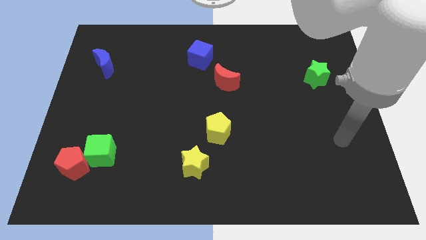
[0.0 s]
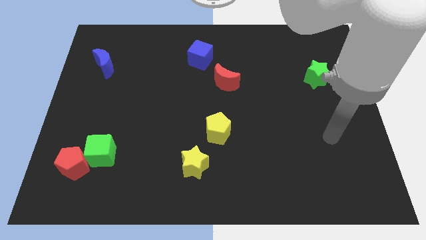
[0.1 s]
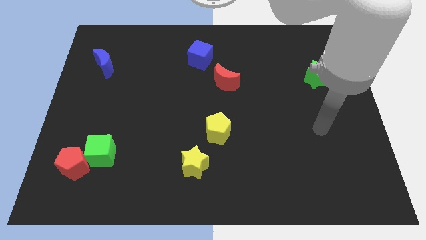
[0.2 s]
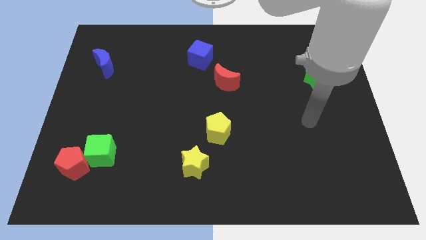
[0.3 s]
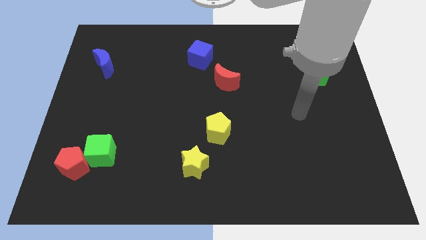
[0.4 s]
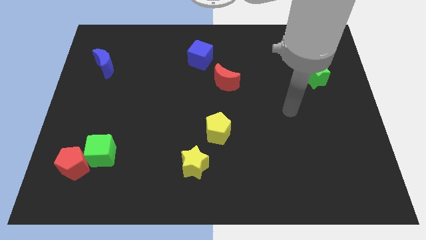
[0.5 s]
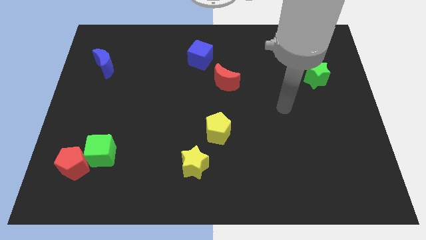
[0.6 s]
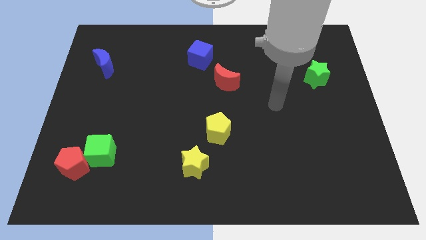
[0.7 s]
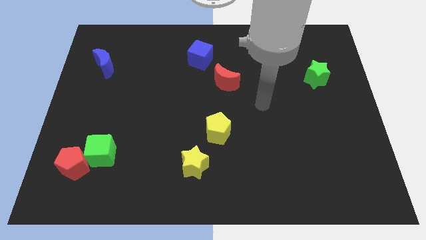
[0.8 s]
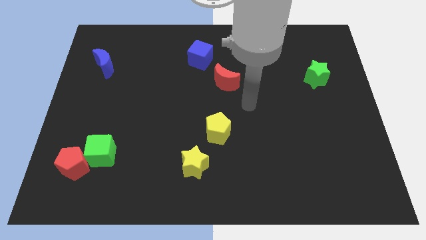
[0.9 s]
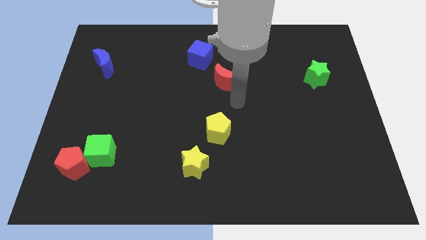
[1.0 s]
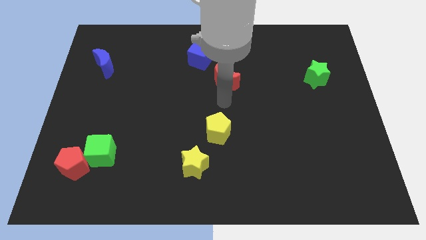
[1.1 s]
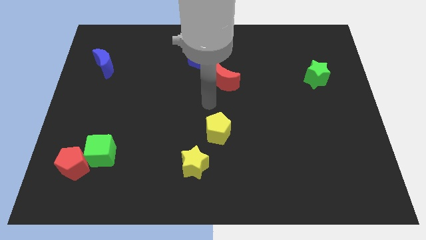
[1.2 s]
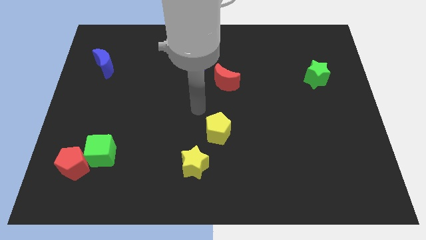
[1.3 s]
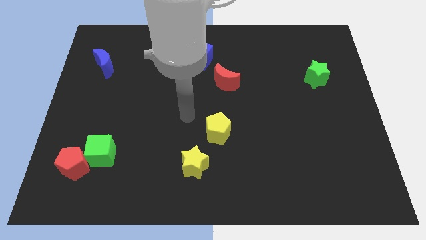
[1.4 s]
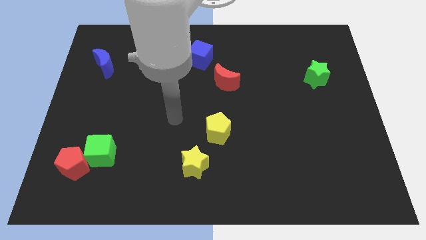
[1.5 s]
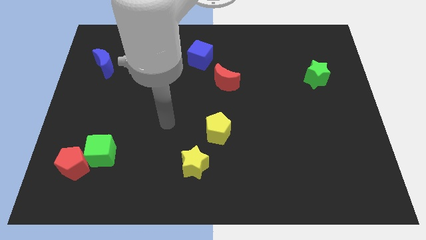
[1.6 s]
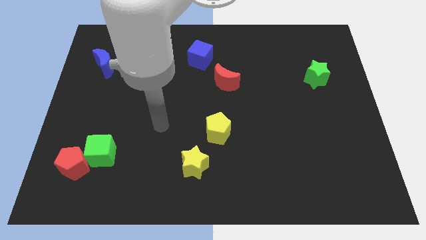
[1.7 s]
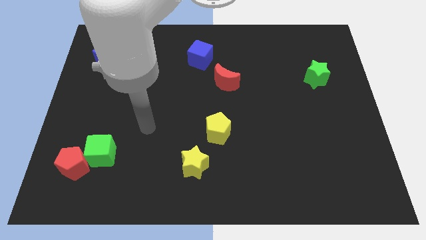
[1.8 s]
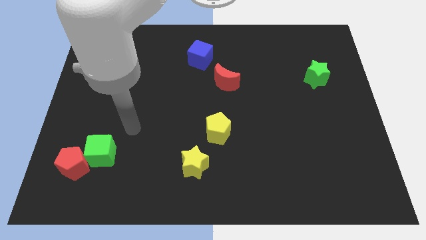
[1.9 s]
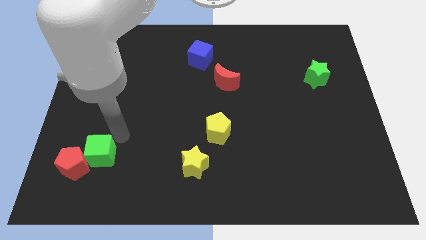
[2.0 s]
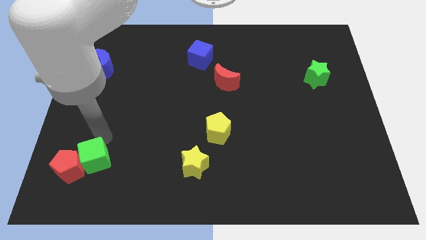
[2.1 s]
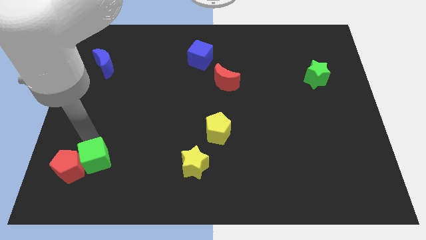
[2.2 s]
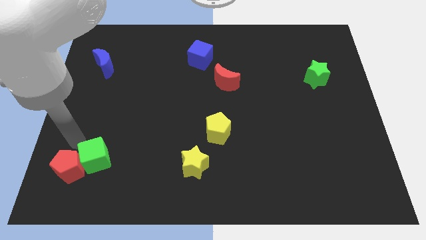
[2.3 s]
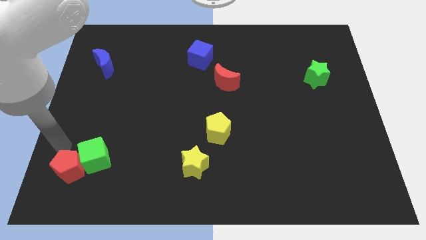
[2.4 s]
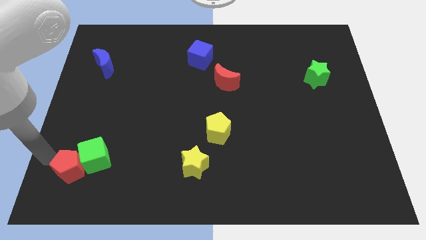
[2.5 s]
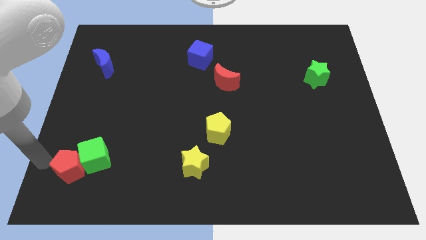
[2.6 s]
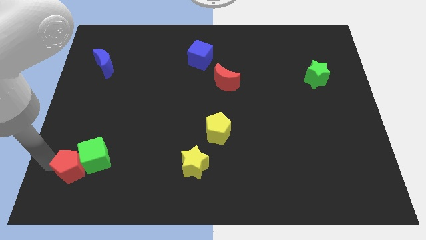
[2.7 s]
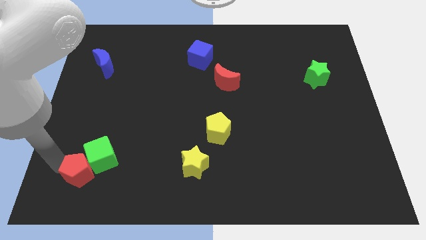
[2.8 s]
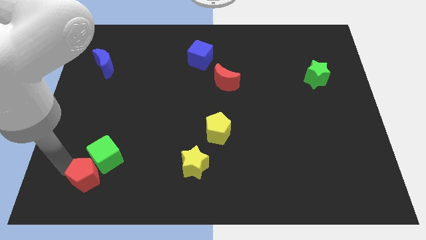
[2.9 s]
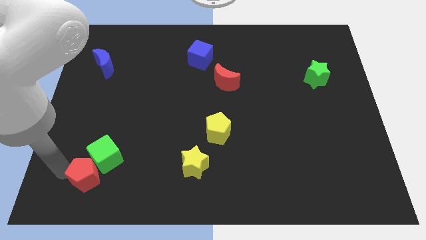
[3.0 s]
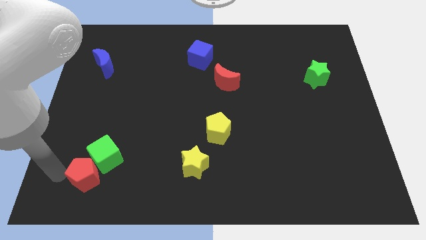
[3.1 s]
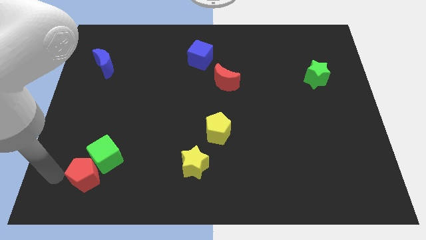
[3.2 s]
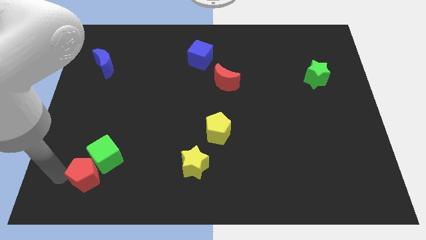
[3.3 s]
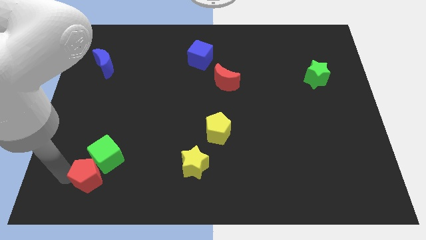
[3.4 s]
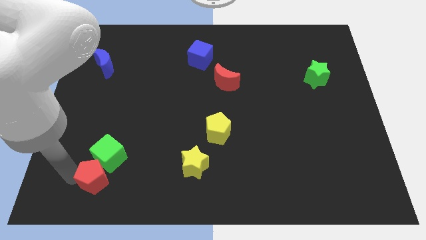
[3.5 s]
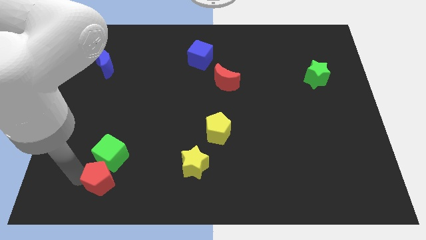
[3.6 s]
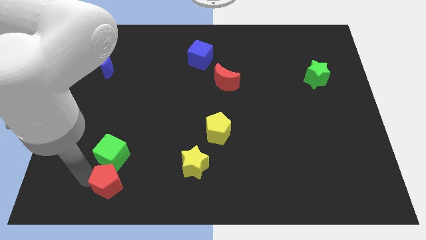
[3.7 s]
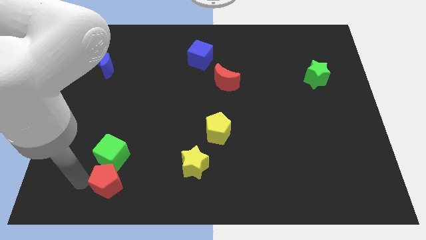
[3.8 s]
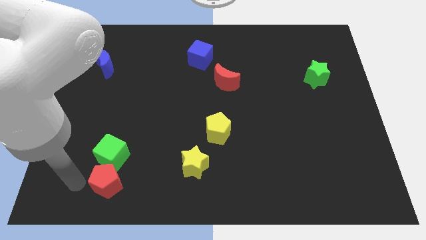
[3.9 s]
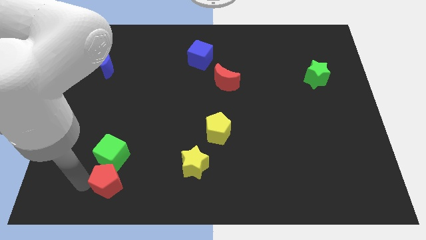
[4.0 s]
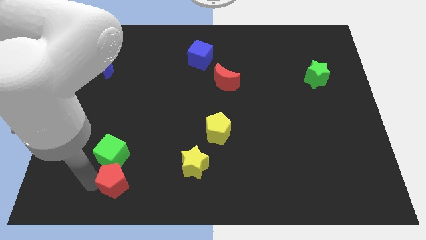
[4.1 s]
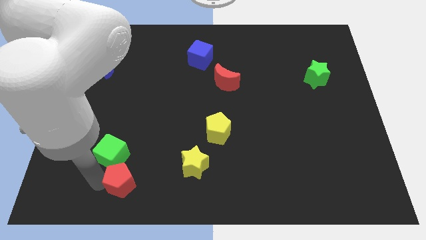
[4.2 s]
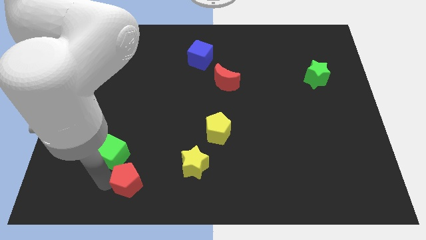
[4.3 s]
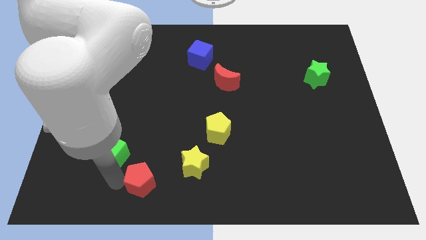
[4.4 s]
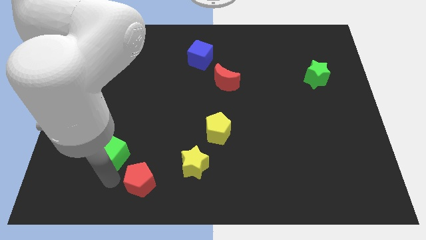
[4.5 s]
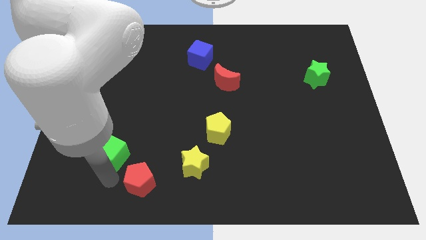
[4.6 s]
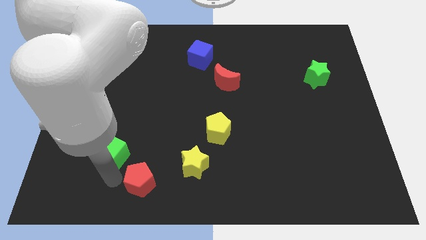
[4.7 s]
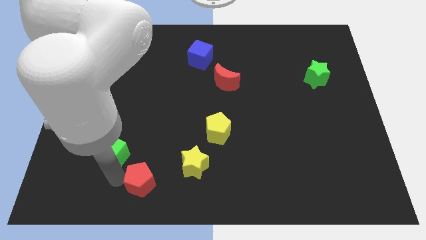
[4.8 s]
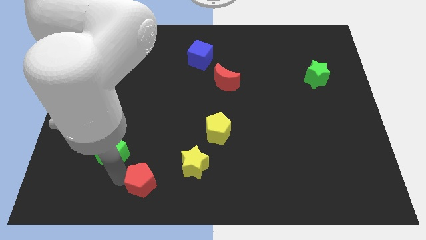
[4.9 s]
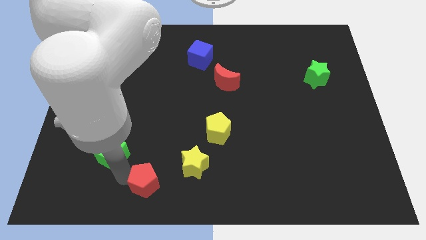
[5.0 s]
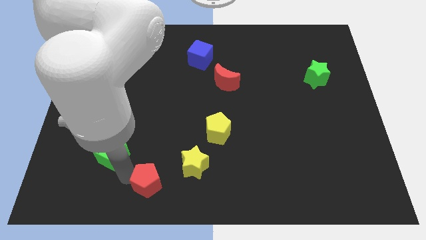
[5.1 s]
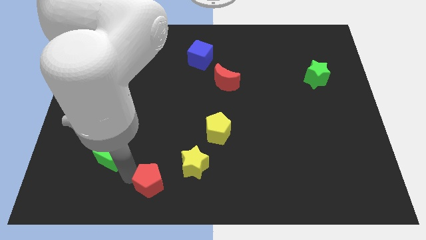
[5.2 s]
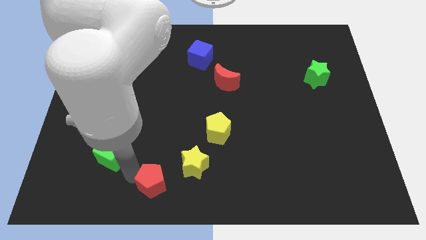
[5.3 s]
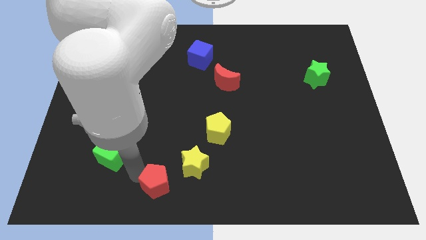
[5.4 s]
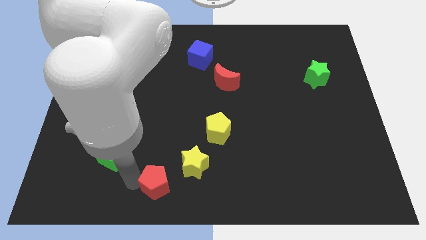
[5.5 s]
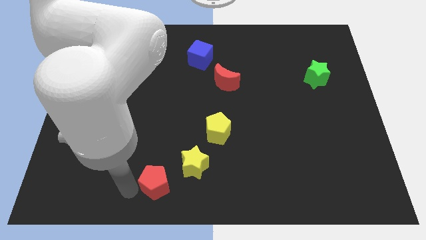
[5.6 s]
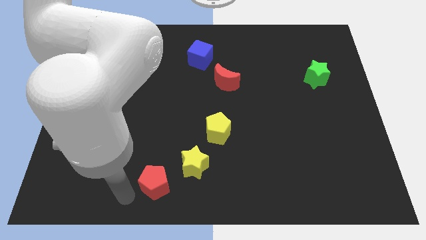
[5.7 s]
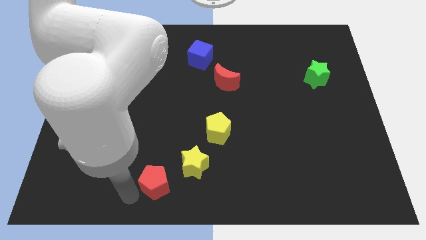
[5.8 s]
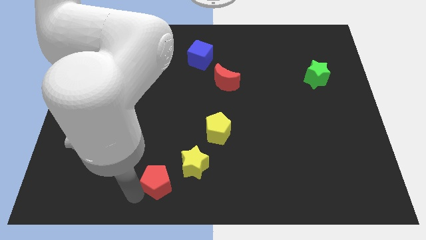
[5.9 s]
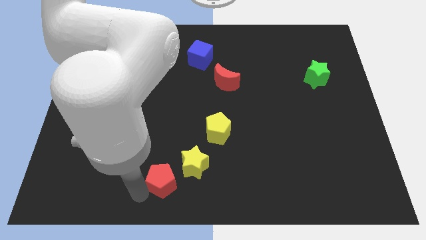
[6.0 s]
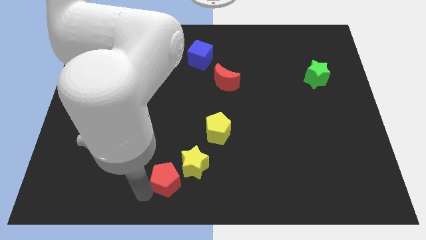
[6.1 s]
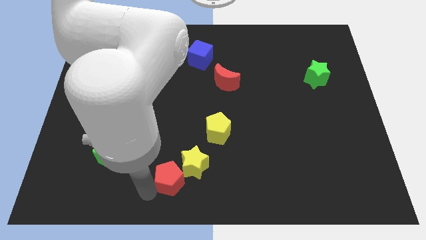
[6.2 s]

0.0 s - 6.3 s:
push the red pentagon towards the yellow star

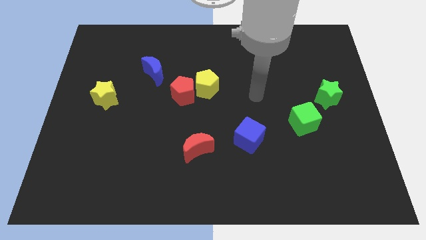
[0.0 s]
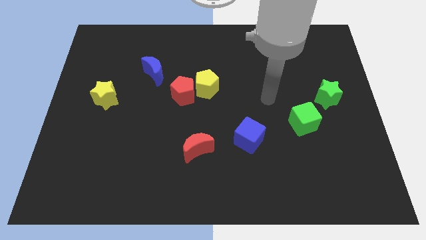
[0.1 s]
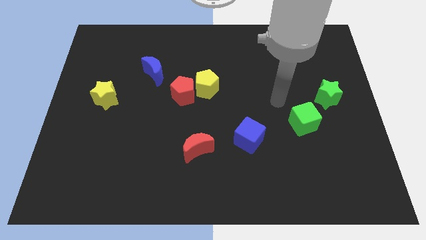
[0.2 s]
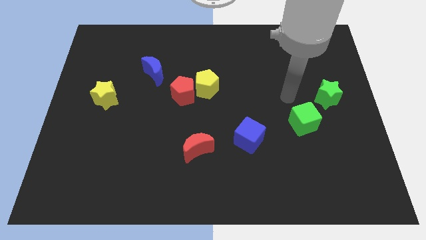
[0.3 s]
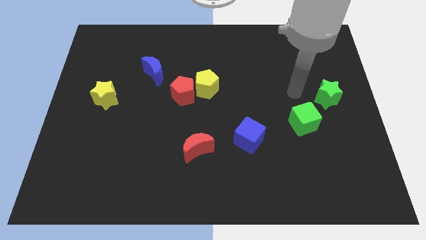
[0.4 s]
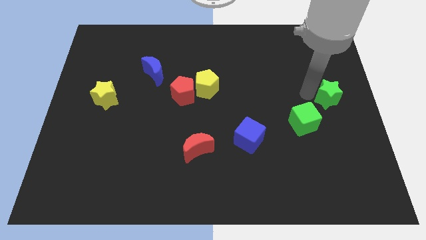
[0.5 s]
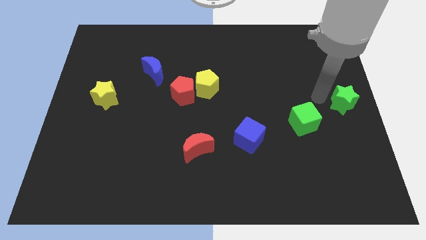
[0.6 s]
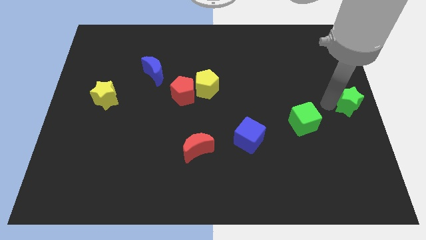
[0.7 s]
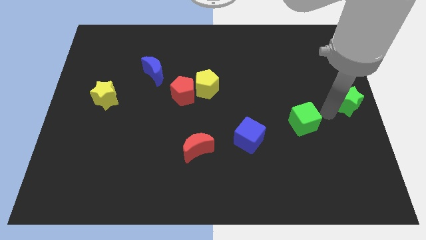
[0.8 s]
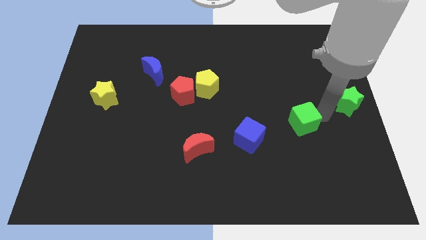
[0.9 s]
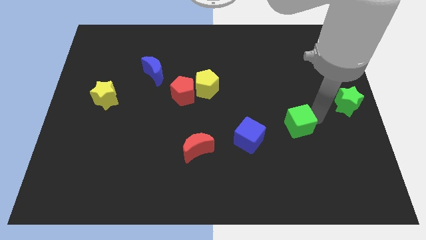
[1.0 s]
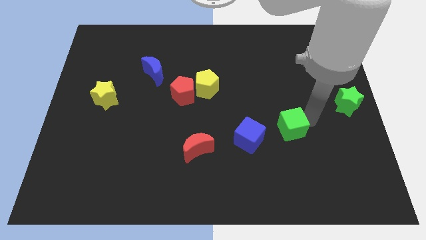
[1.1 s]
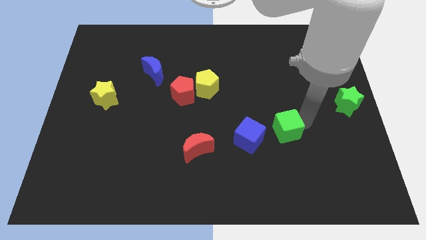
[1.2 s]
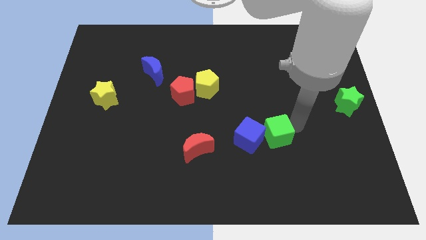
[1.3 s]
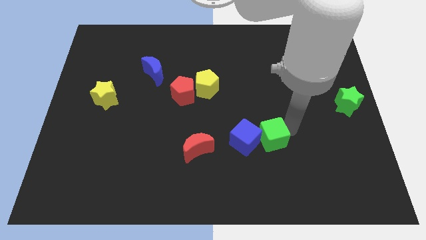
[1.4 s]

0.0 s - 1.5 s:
slide the green cube close to the blue cube
